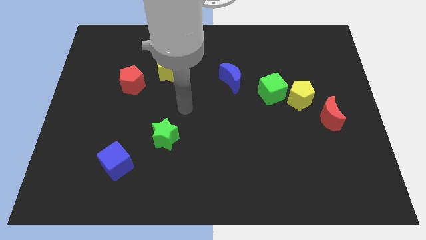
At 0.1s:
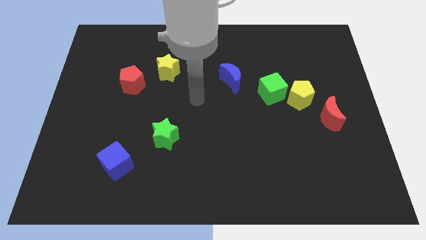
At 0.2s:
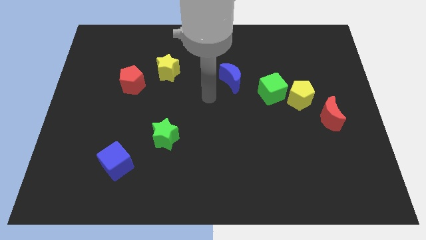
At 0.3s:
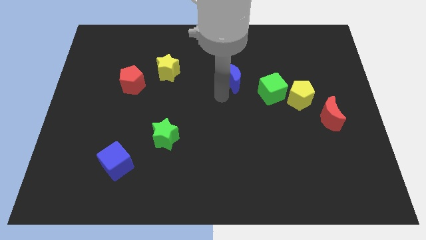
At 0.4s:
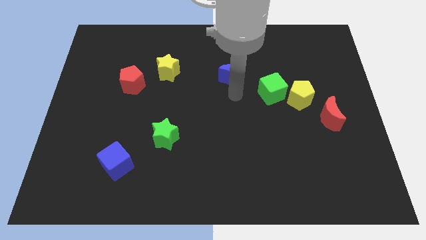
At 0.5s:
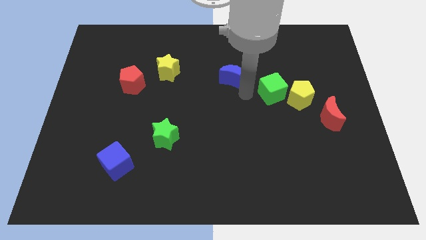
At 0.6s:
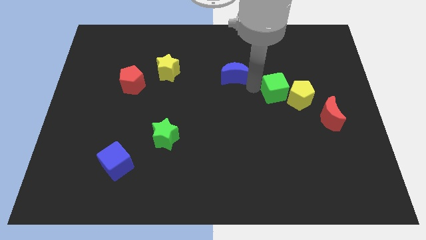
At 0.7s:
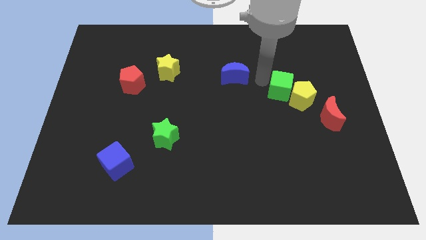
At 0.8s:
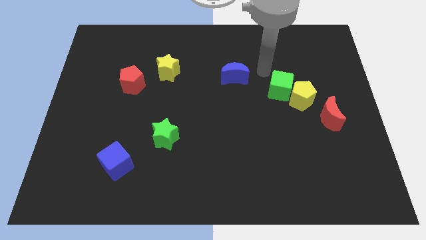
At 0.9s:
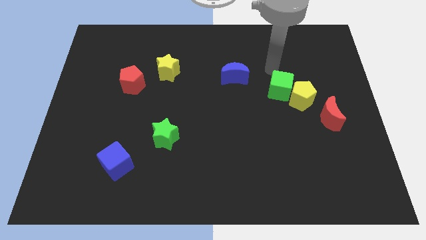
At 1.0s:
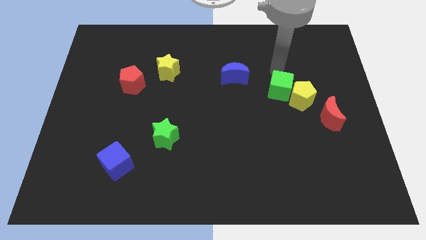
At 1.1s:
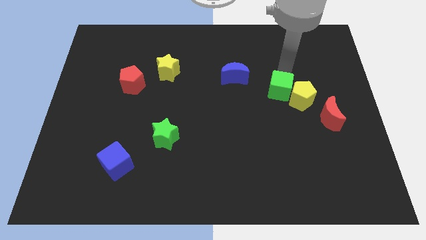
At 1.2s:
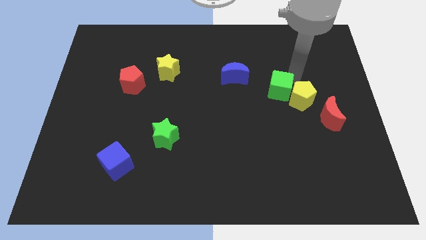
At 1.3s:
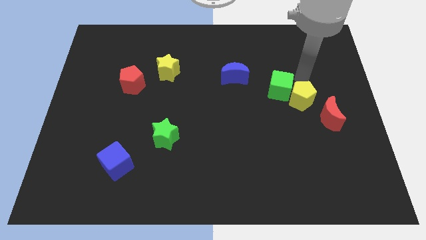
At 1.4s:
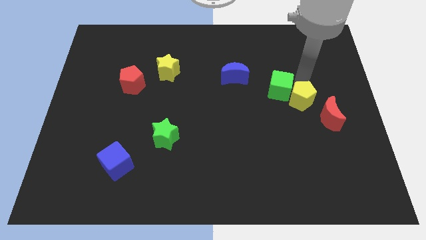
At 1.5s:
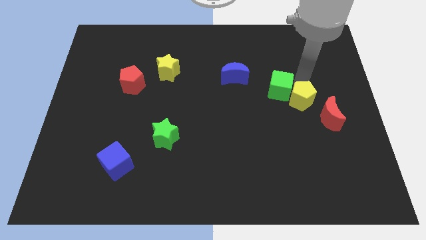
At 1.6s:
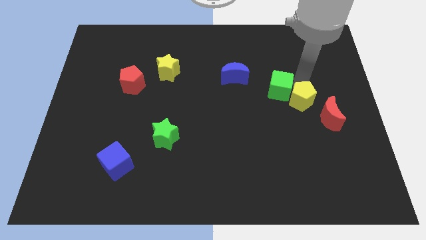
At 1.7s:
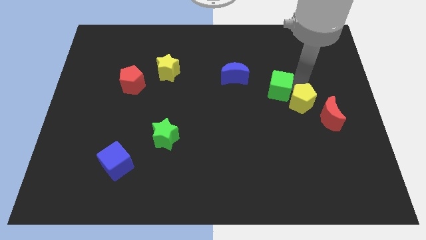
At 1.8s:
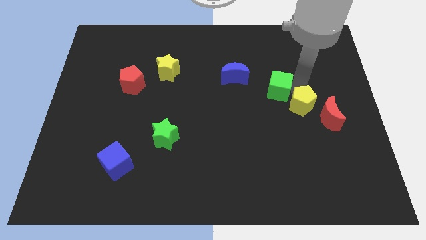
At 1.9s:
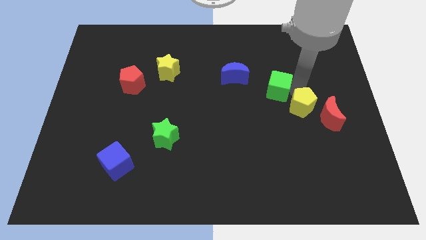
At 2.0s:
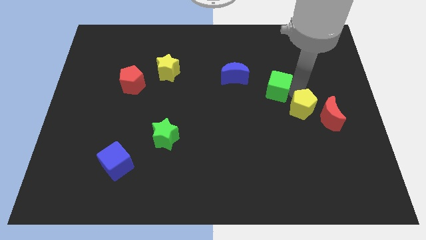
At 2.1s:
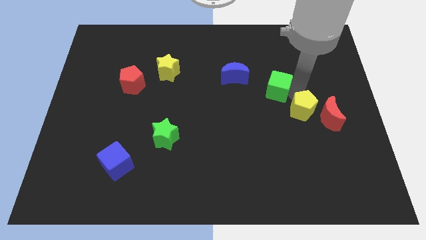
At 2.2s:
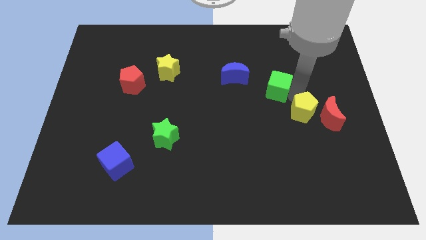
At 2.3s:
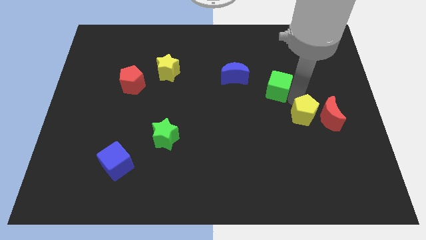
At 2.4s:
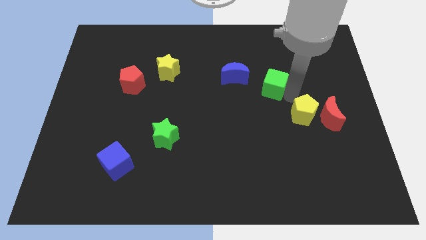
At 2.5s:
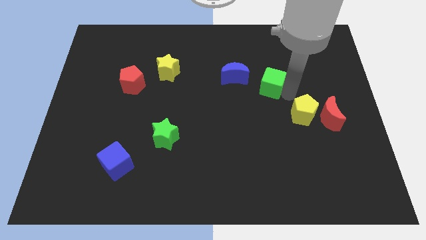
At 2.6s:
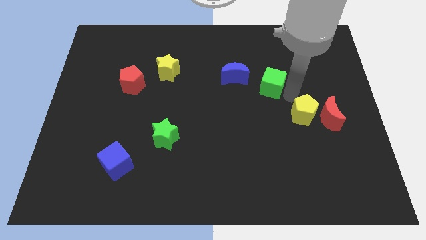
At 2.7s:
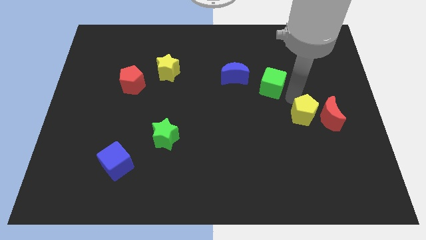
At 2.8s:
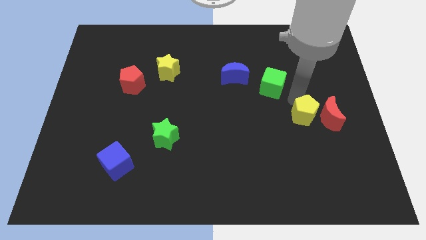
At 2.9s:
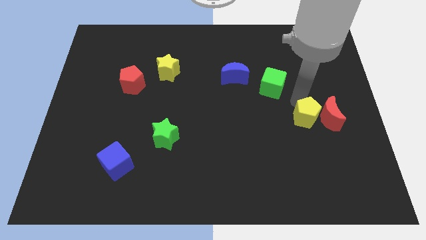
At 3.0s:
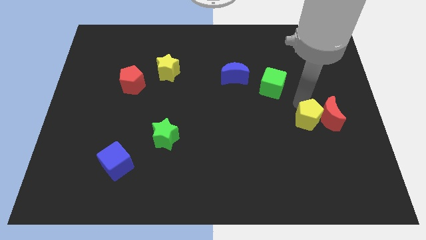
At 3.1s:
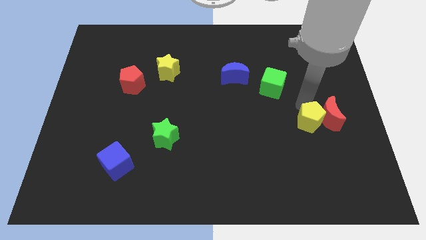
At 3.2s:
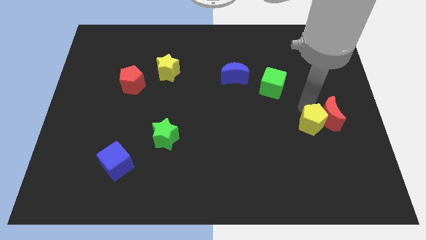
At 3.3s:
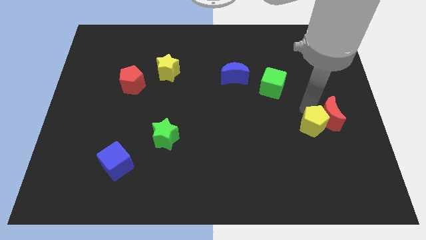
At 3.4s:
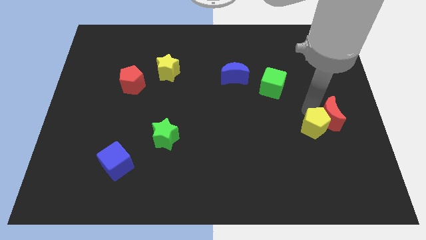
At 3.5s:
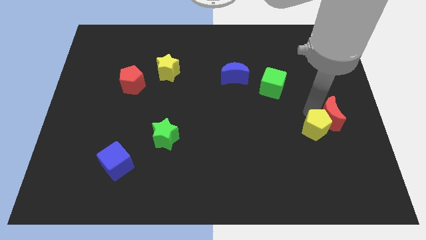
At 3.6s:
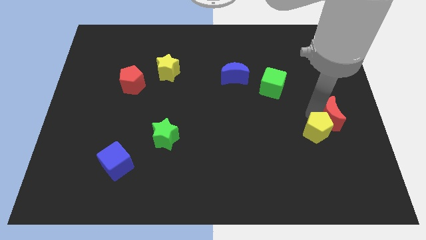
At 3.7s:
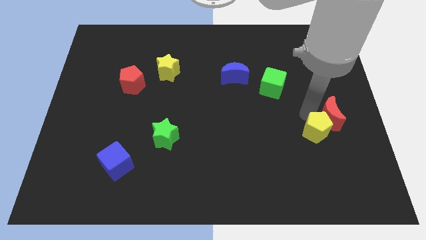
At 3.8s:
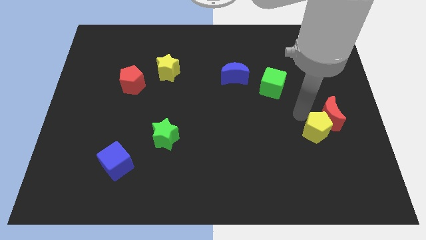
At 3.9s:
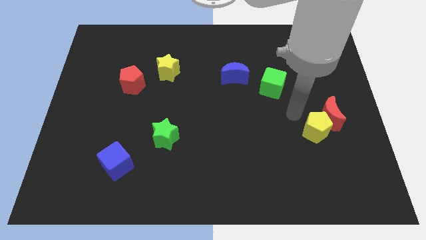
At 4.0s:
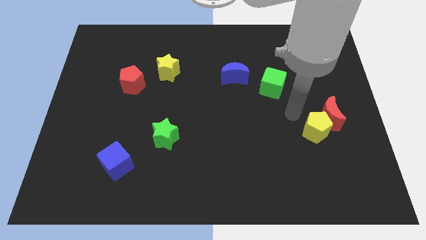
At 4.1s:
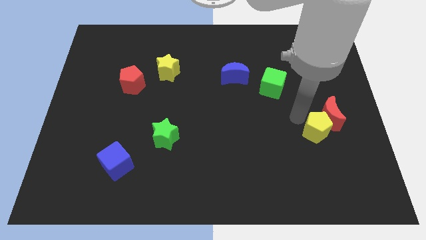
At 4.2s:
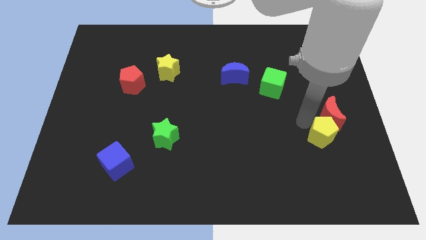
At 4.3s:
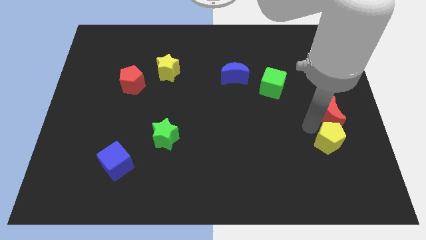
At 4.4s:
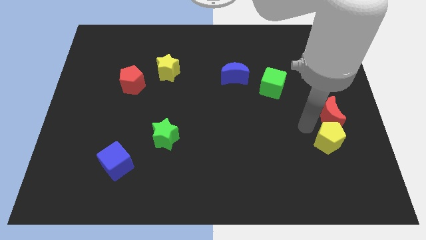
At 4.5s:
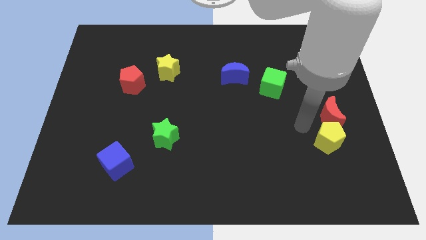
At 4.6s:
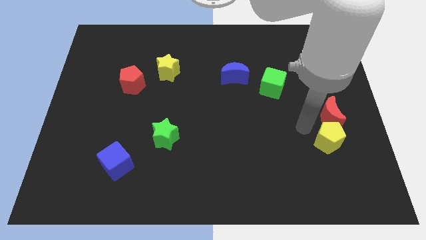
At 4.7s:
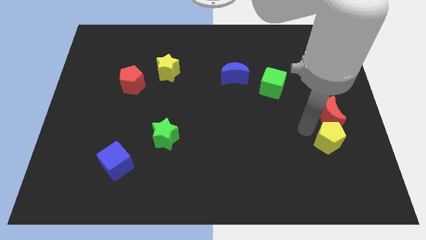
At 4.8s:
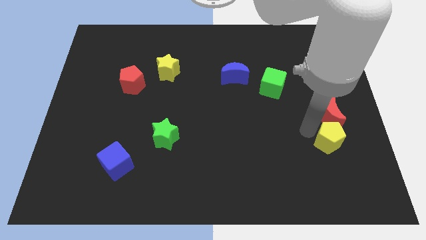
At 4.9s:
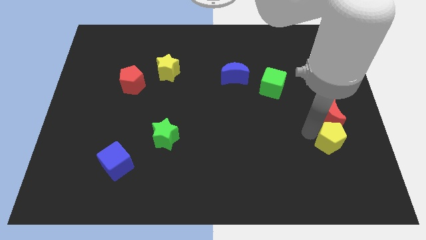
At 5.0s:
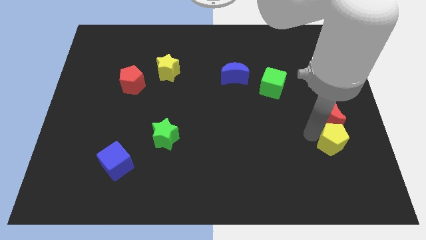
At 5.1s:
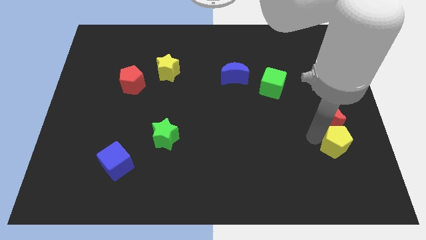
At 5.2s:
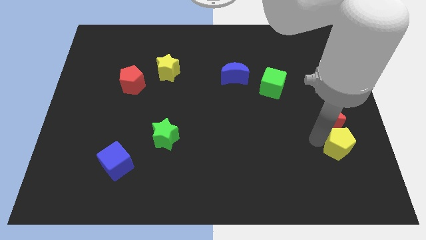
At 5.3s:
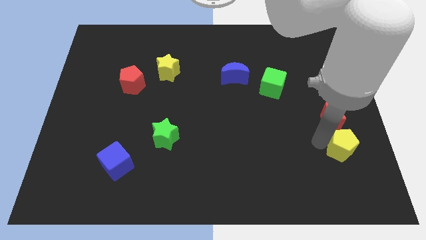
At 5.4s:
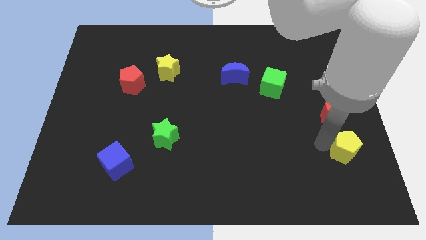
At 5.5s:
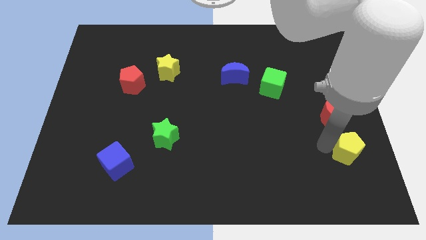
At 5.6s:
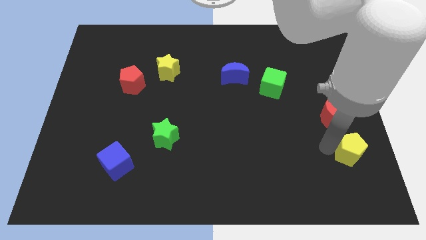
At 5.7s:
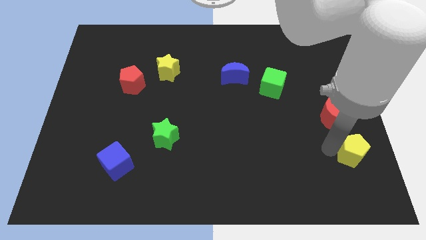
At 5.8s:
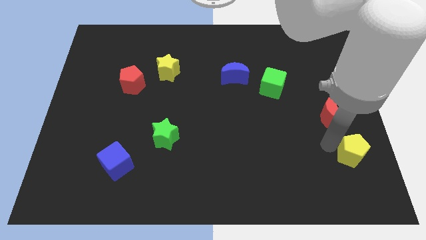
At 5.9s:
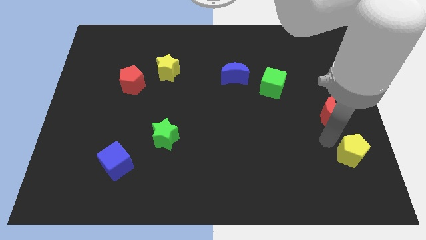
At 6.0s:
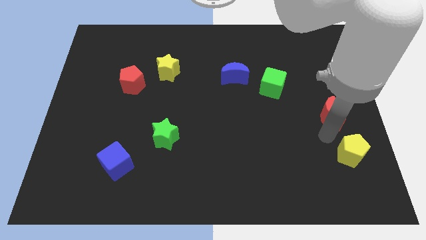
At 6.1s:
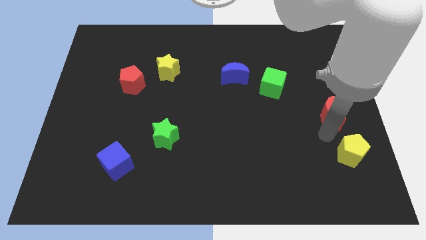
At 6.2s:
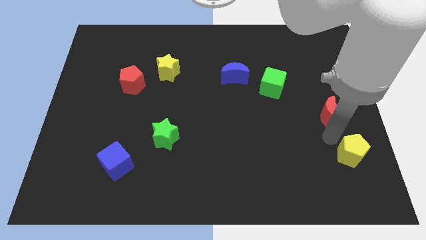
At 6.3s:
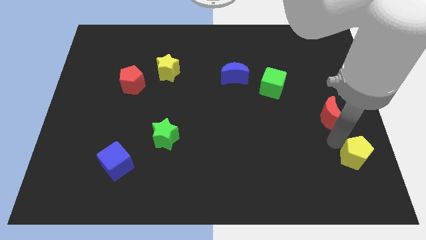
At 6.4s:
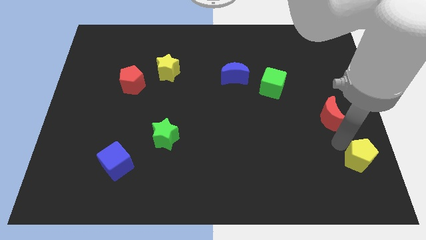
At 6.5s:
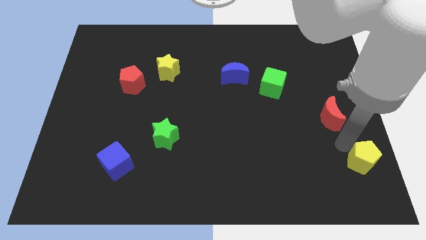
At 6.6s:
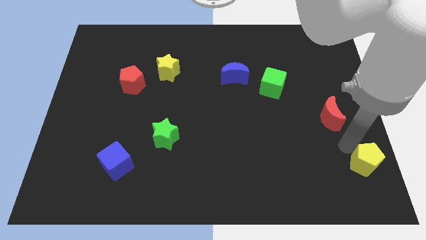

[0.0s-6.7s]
slide the yellow pentagon to the bottom right corner
